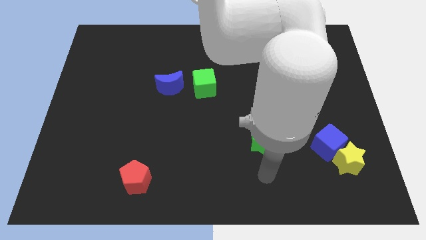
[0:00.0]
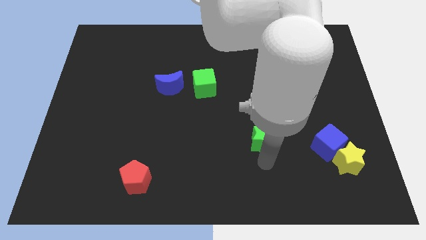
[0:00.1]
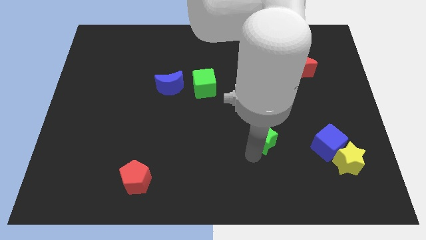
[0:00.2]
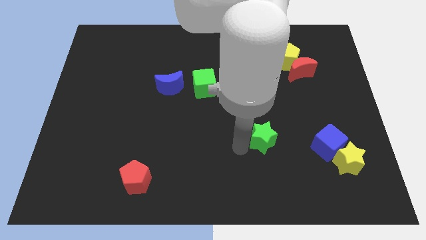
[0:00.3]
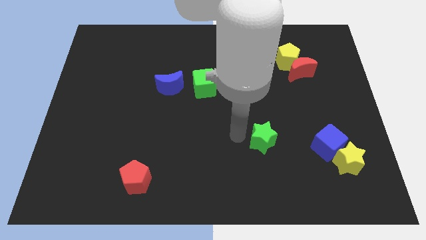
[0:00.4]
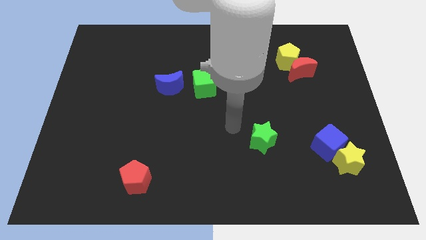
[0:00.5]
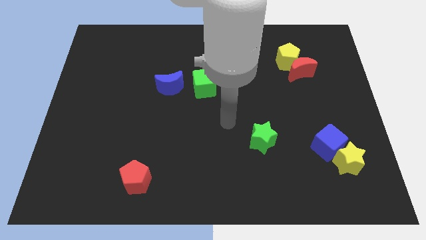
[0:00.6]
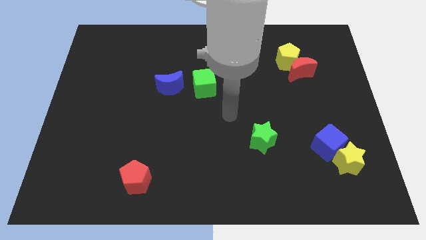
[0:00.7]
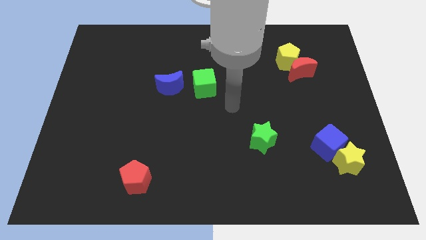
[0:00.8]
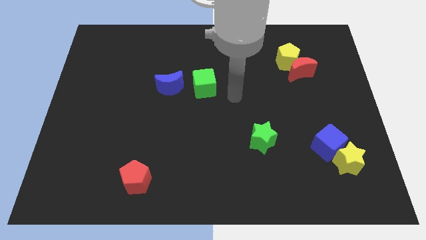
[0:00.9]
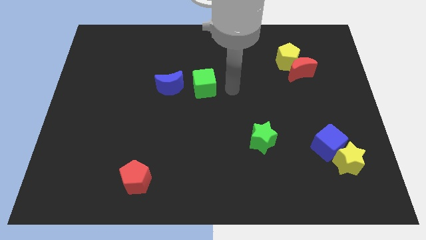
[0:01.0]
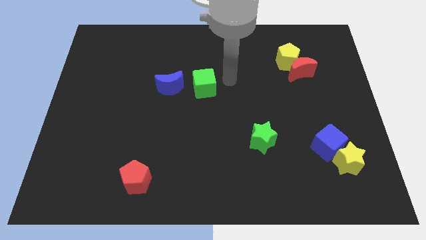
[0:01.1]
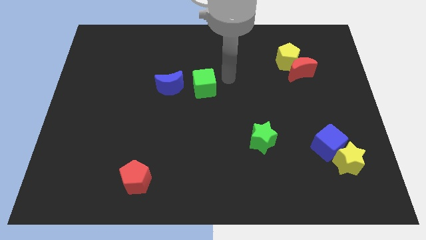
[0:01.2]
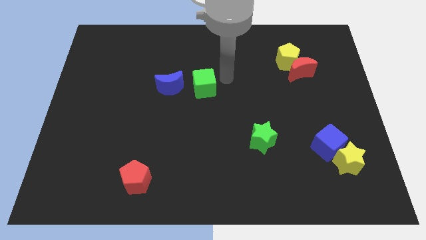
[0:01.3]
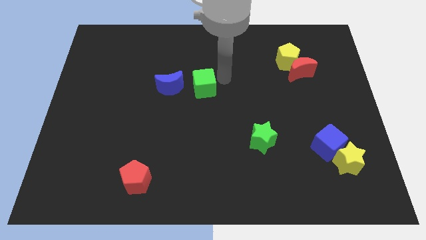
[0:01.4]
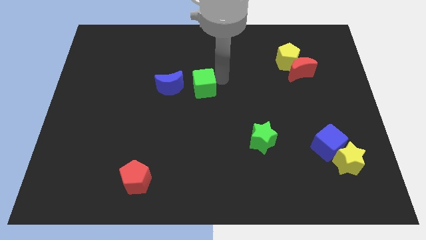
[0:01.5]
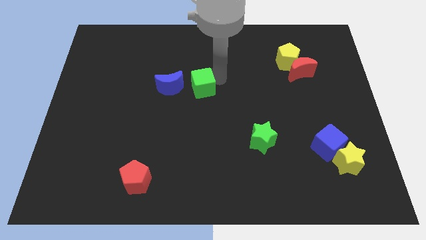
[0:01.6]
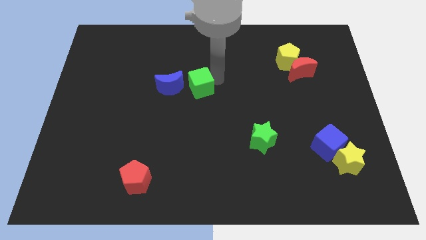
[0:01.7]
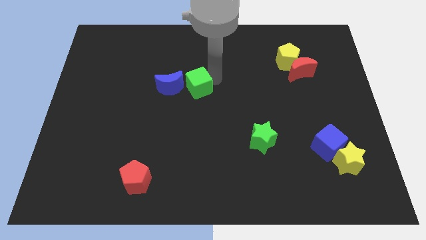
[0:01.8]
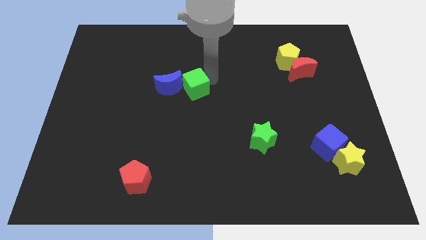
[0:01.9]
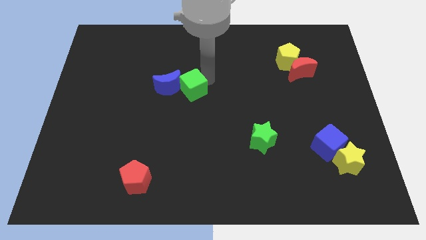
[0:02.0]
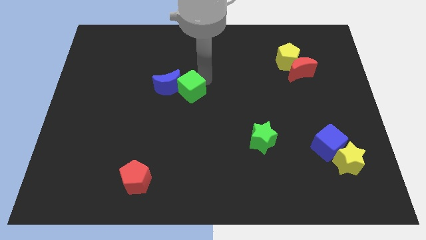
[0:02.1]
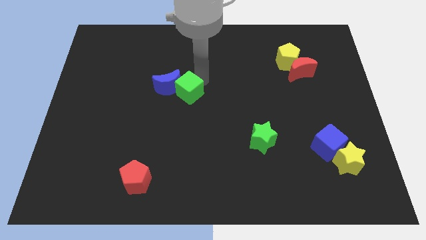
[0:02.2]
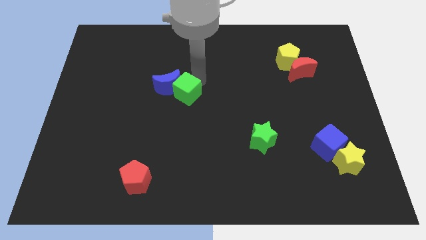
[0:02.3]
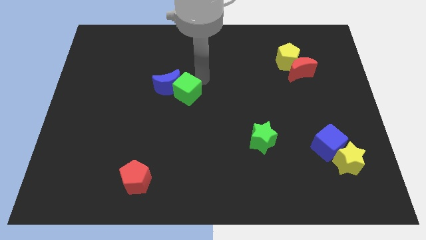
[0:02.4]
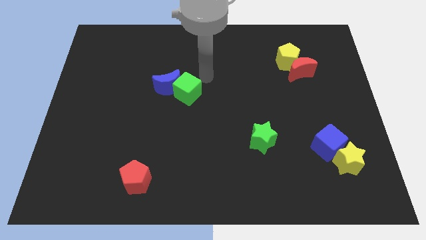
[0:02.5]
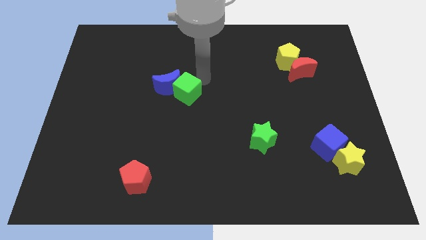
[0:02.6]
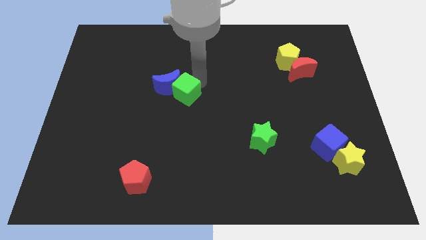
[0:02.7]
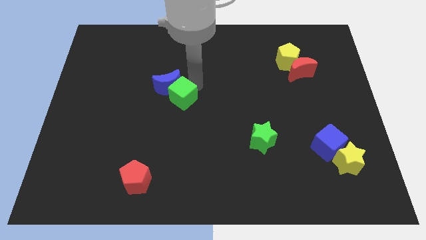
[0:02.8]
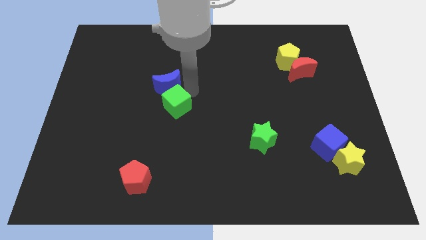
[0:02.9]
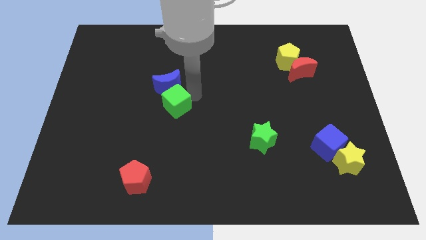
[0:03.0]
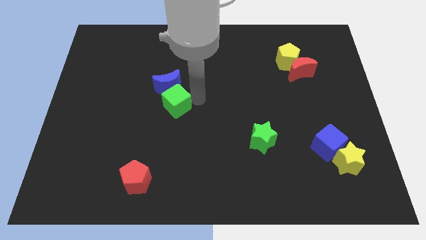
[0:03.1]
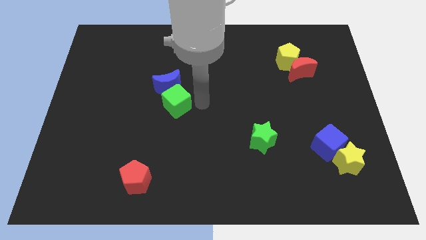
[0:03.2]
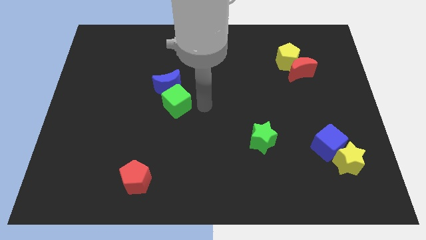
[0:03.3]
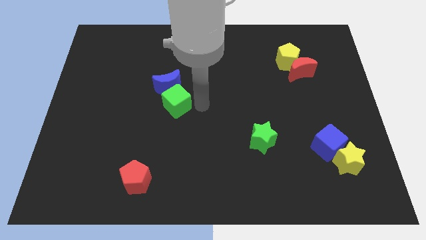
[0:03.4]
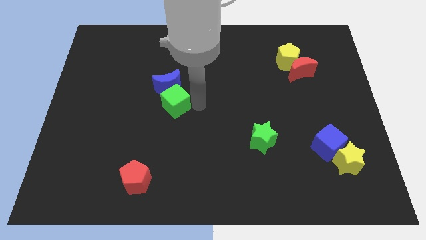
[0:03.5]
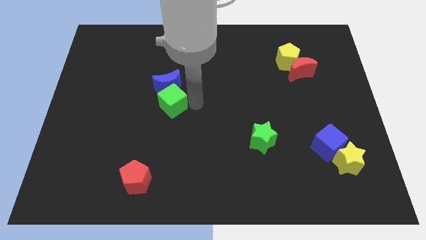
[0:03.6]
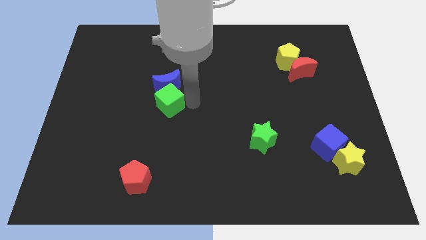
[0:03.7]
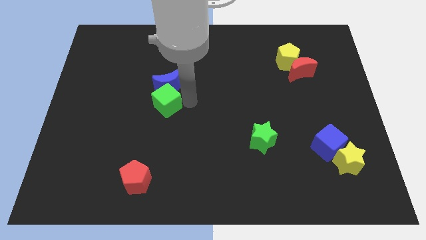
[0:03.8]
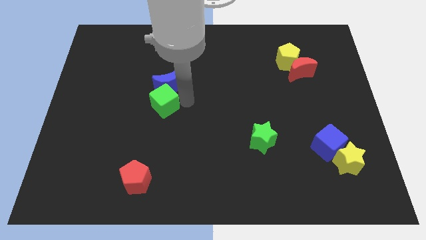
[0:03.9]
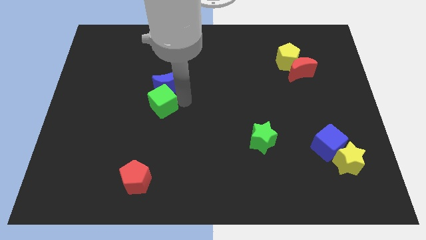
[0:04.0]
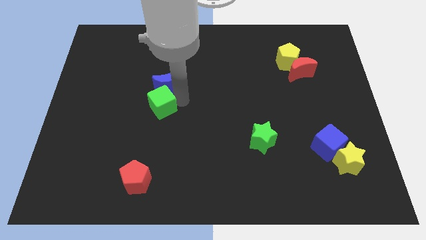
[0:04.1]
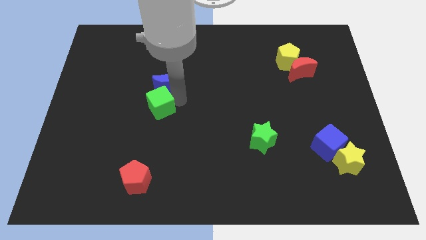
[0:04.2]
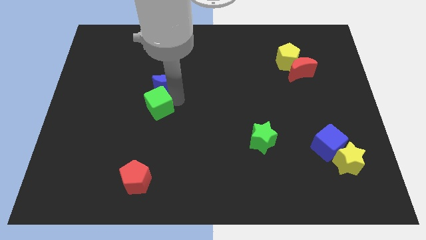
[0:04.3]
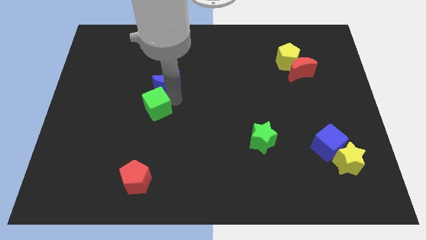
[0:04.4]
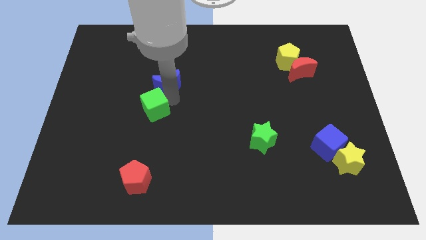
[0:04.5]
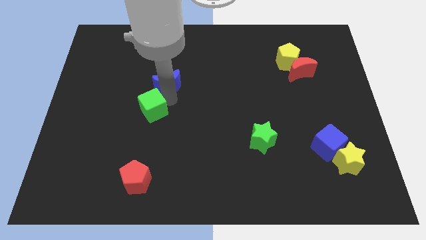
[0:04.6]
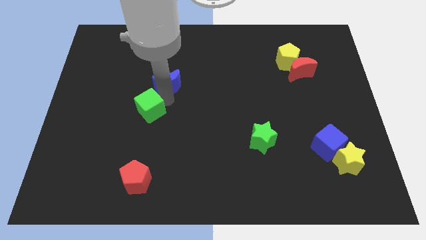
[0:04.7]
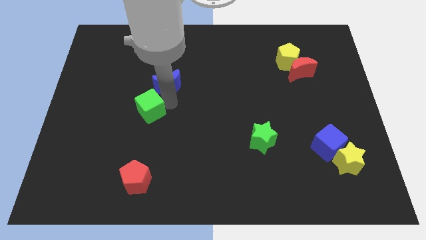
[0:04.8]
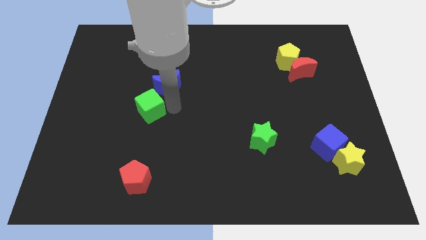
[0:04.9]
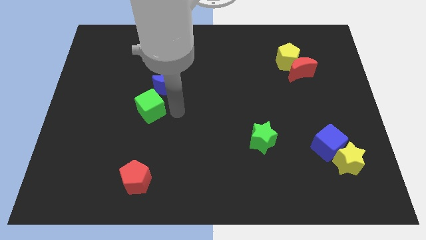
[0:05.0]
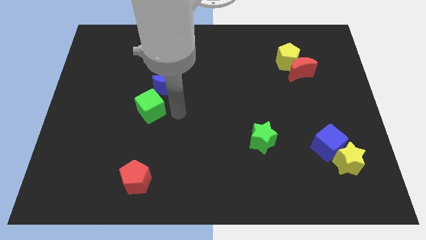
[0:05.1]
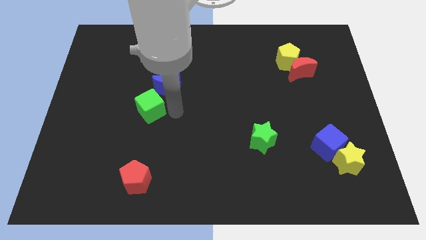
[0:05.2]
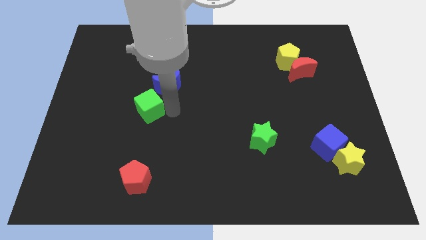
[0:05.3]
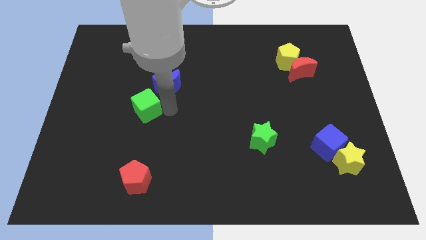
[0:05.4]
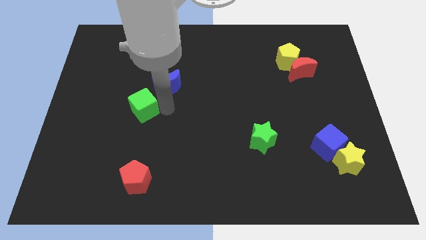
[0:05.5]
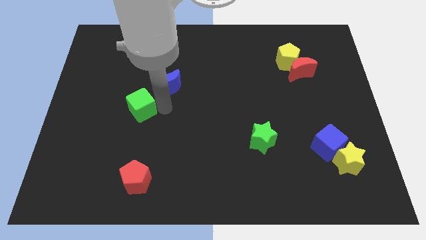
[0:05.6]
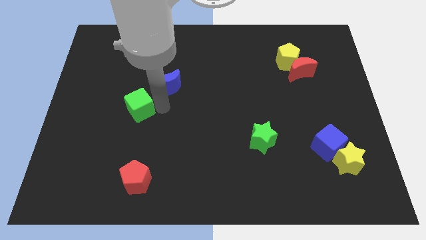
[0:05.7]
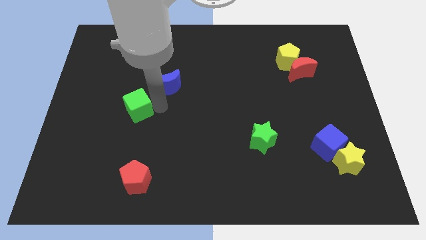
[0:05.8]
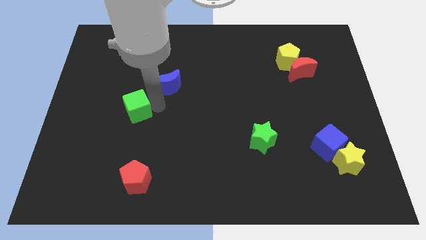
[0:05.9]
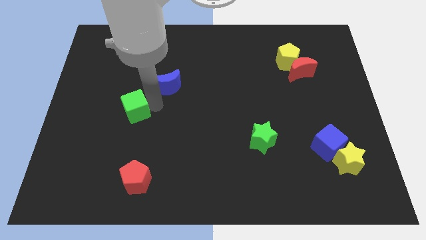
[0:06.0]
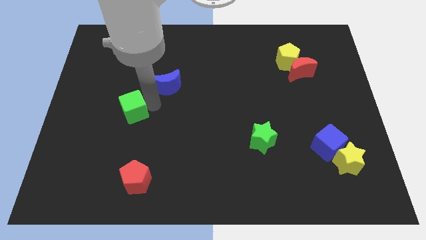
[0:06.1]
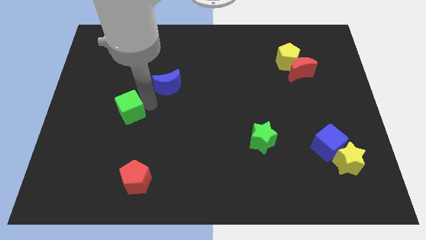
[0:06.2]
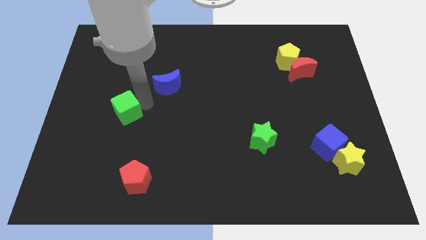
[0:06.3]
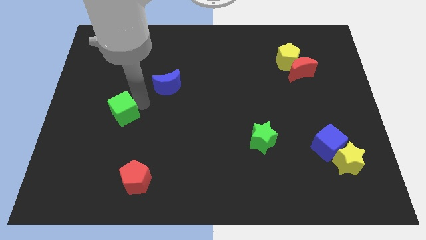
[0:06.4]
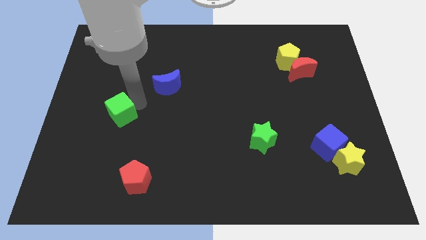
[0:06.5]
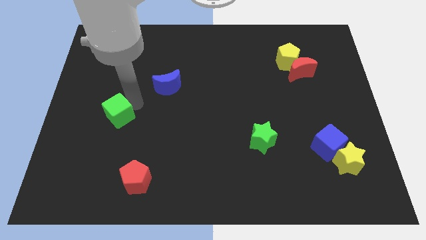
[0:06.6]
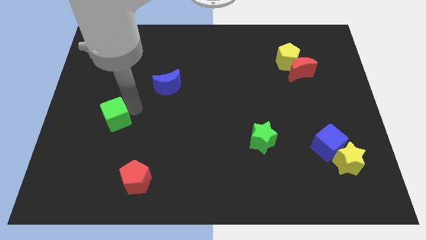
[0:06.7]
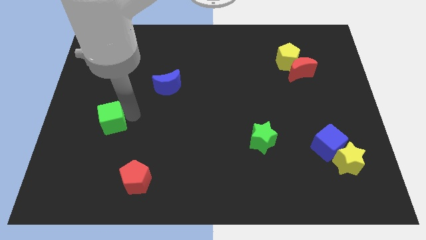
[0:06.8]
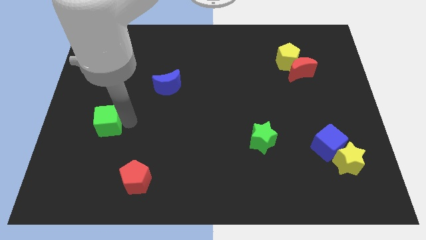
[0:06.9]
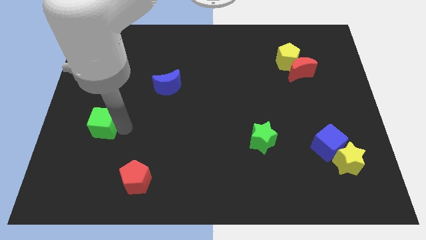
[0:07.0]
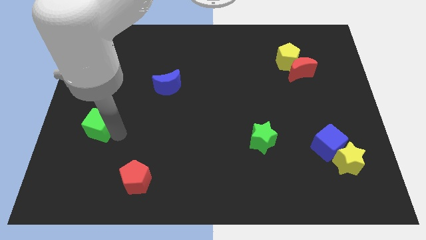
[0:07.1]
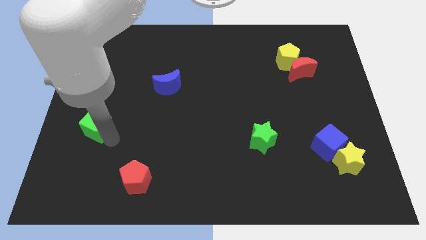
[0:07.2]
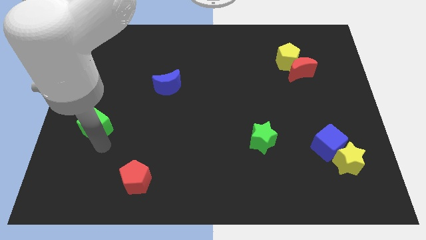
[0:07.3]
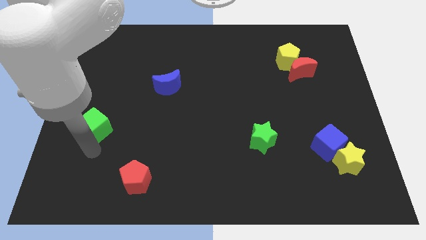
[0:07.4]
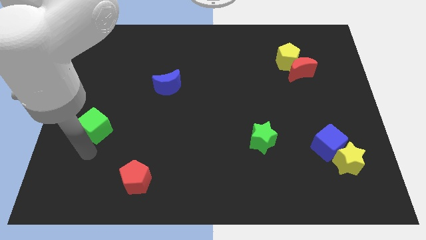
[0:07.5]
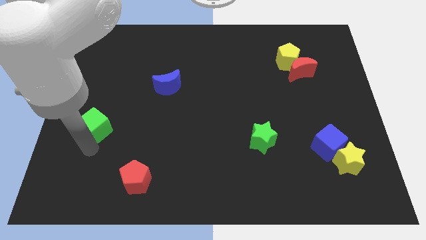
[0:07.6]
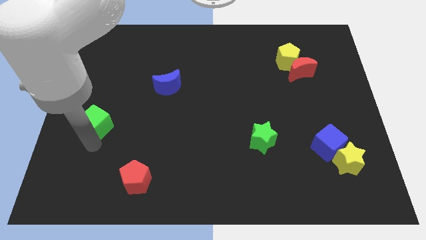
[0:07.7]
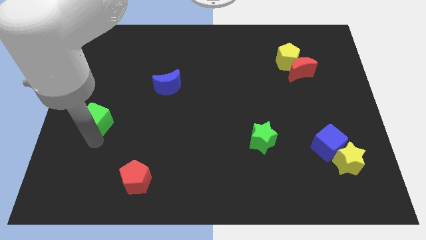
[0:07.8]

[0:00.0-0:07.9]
slide the green cube to the left side
